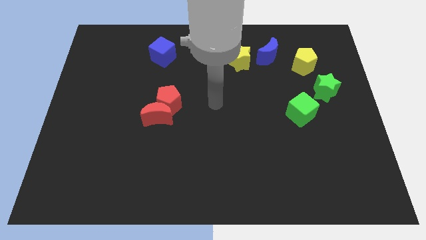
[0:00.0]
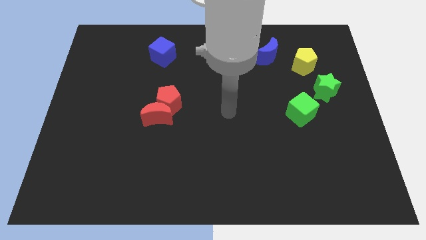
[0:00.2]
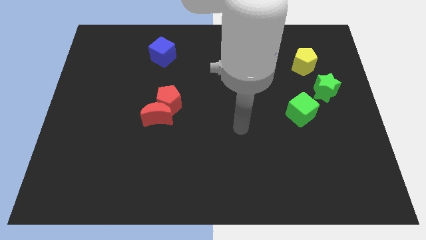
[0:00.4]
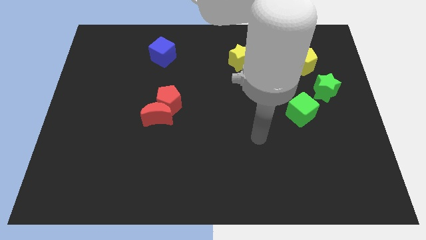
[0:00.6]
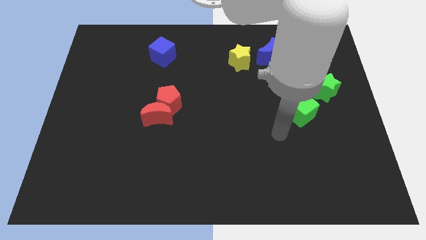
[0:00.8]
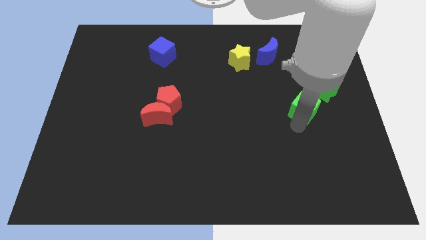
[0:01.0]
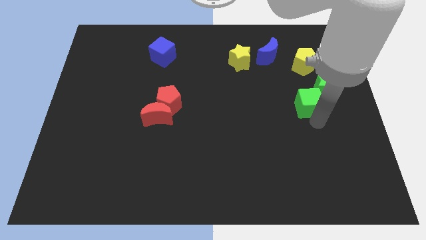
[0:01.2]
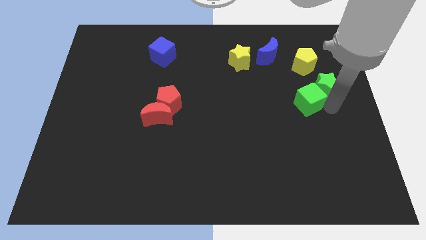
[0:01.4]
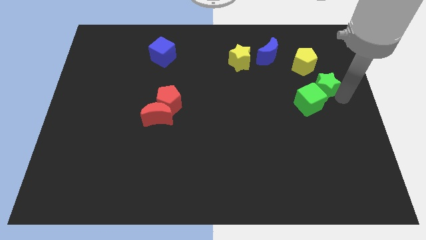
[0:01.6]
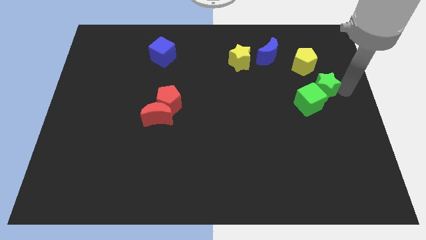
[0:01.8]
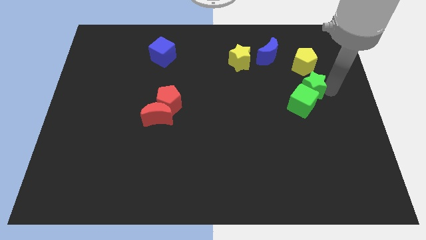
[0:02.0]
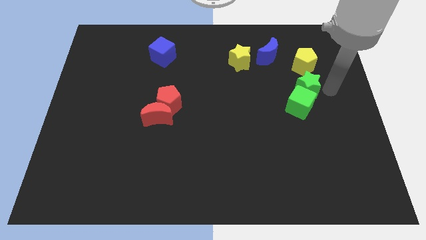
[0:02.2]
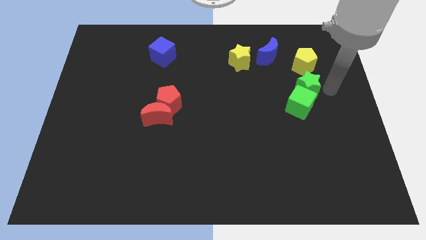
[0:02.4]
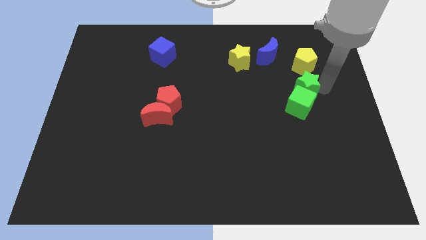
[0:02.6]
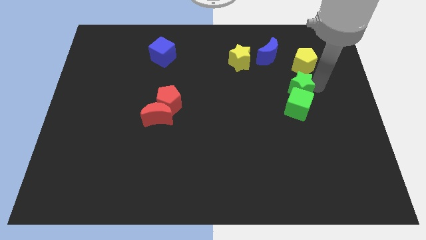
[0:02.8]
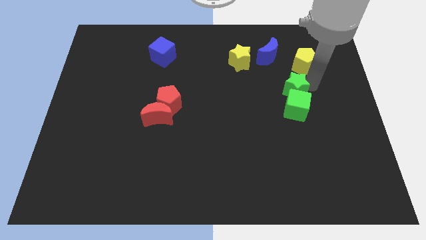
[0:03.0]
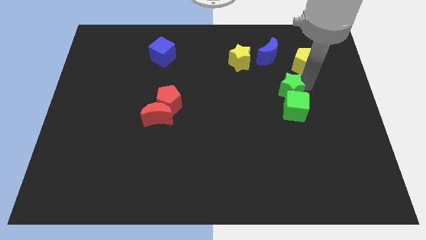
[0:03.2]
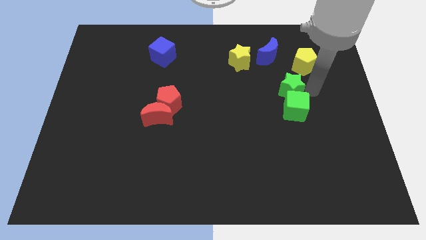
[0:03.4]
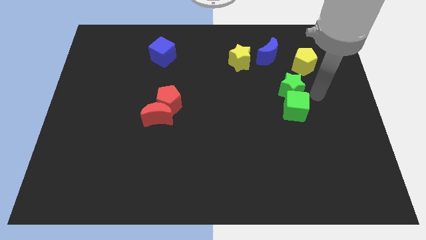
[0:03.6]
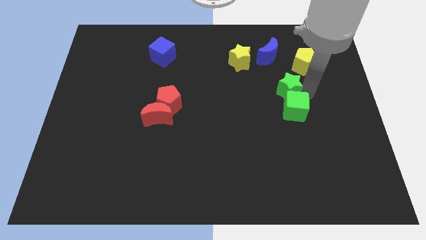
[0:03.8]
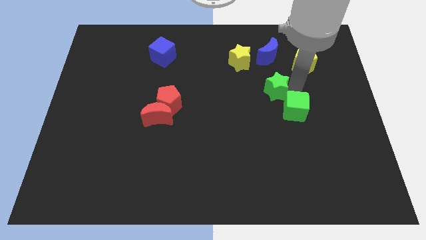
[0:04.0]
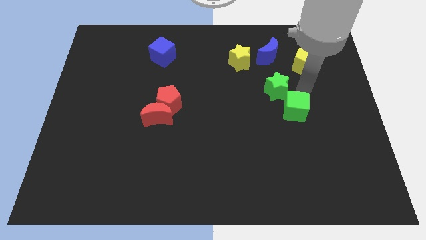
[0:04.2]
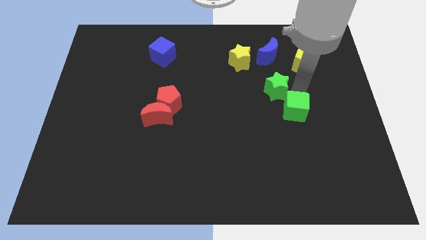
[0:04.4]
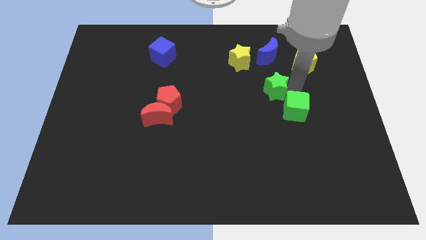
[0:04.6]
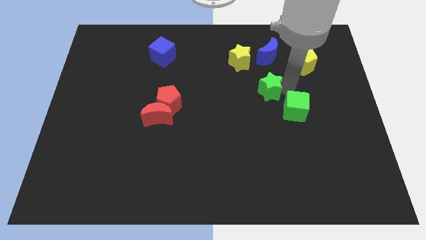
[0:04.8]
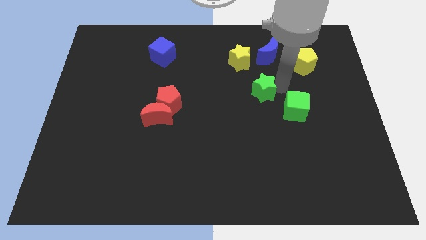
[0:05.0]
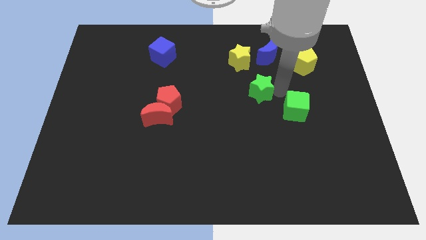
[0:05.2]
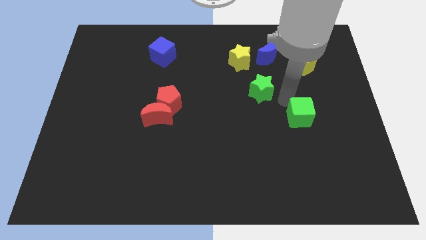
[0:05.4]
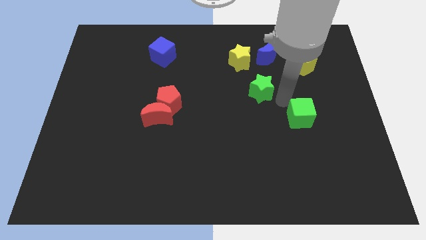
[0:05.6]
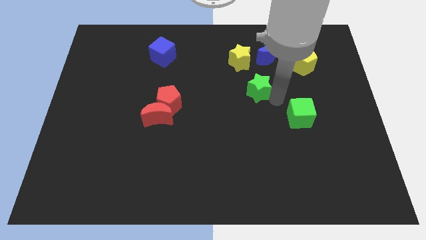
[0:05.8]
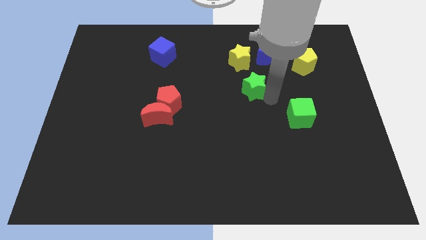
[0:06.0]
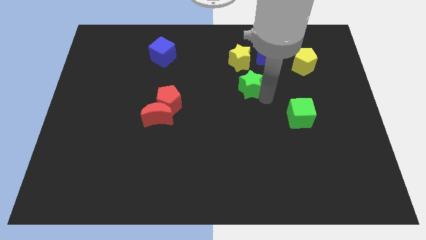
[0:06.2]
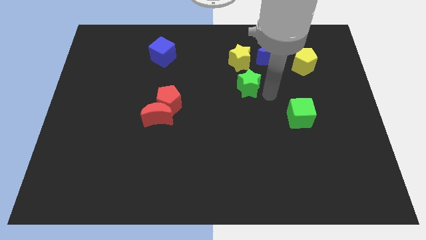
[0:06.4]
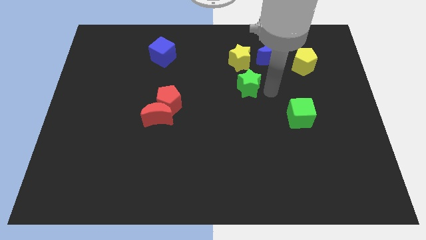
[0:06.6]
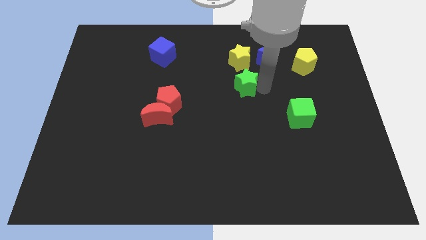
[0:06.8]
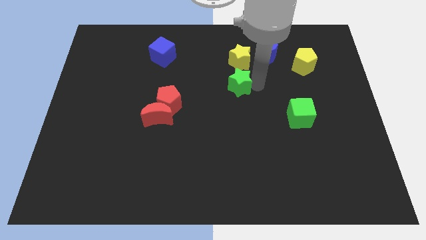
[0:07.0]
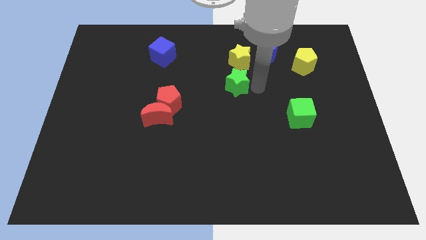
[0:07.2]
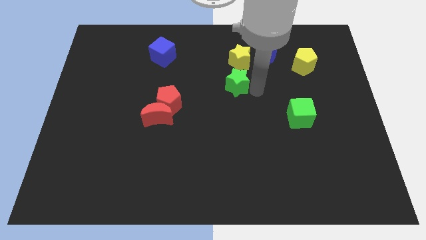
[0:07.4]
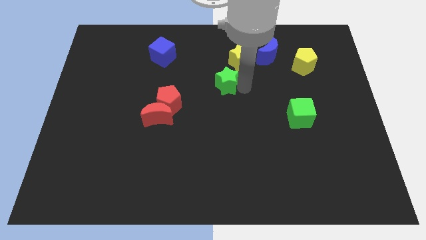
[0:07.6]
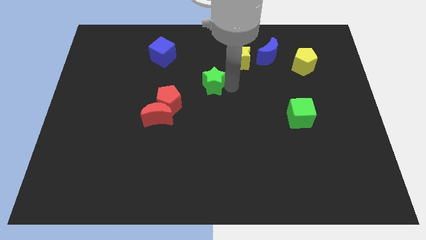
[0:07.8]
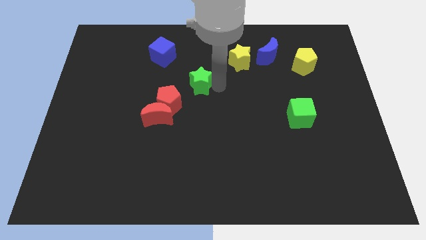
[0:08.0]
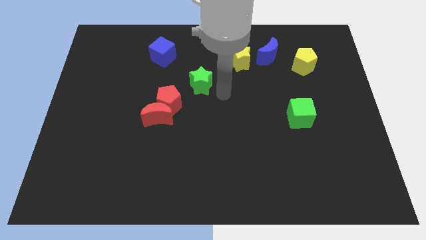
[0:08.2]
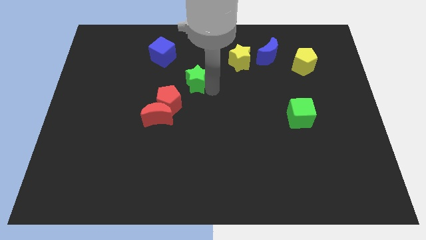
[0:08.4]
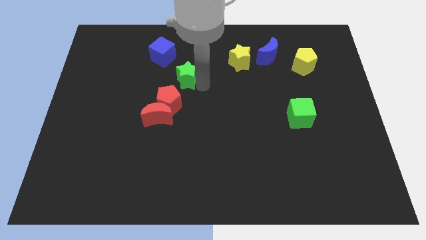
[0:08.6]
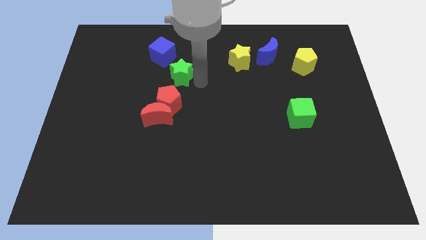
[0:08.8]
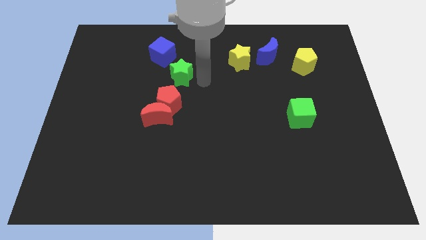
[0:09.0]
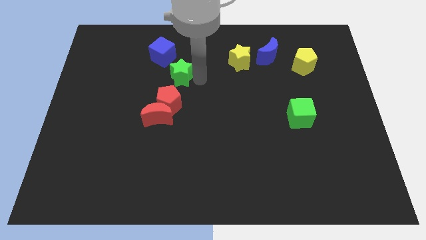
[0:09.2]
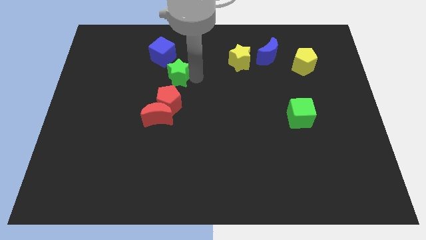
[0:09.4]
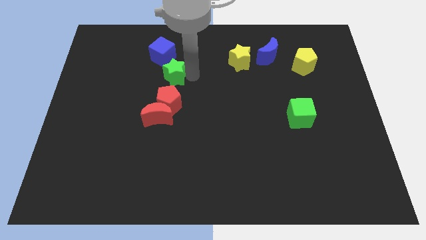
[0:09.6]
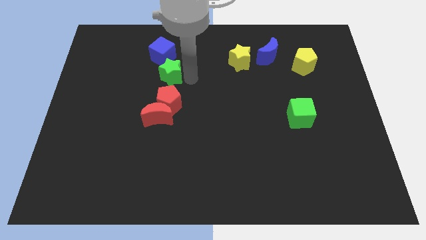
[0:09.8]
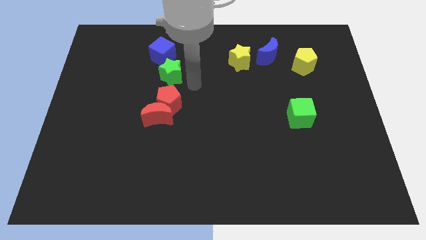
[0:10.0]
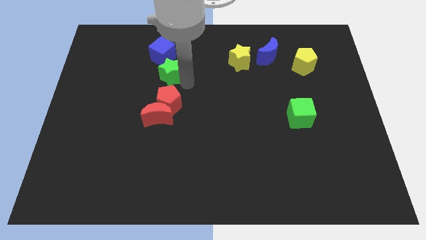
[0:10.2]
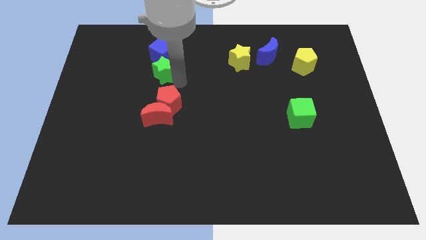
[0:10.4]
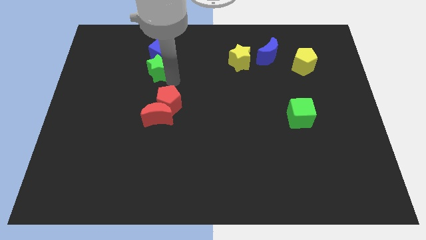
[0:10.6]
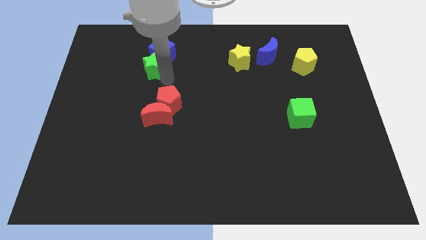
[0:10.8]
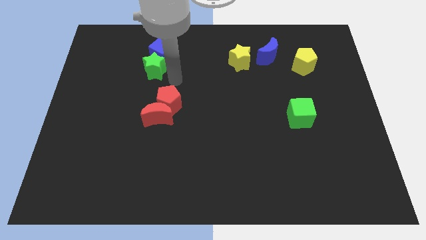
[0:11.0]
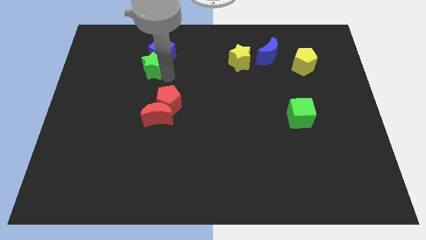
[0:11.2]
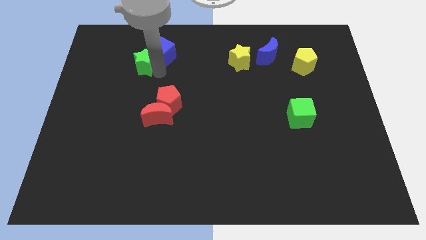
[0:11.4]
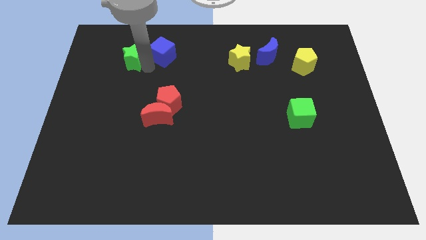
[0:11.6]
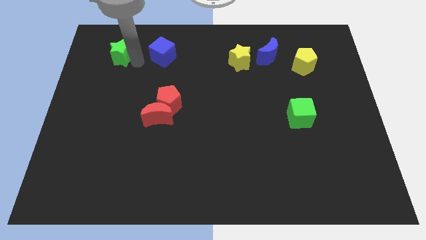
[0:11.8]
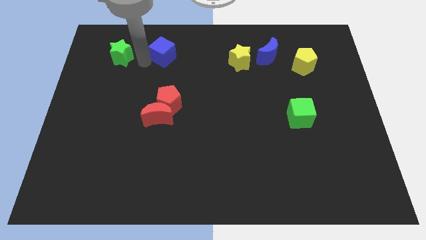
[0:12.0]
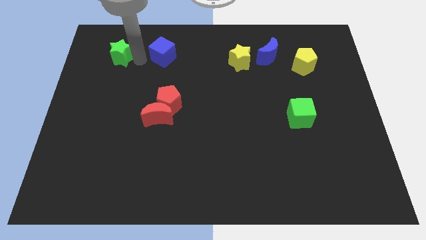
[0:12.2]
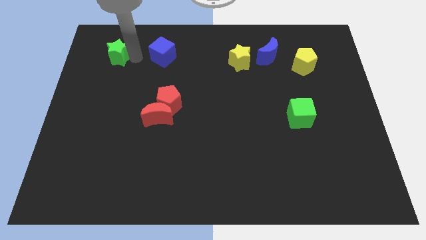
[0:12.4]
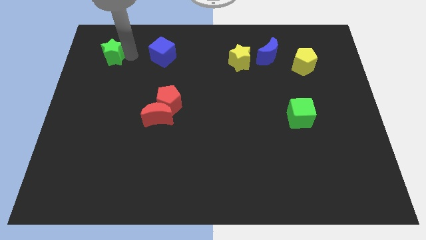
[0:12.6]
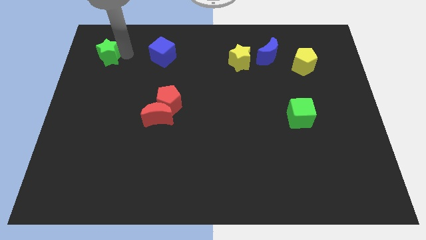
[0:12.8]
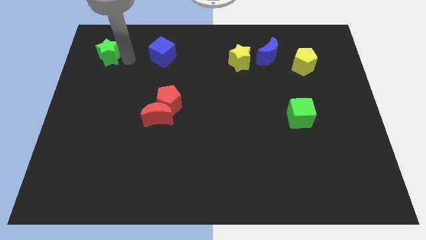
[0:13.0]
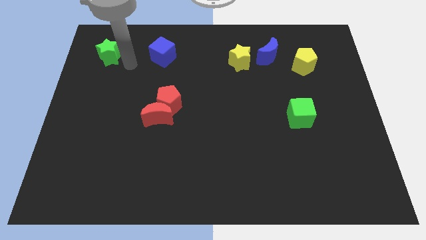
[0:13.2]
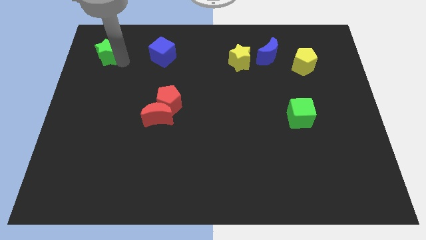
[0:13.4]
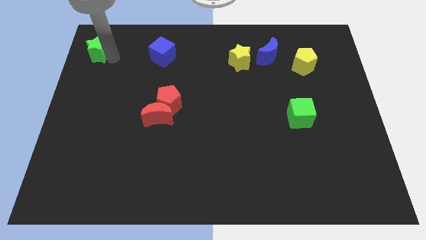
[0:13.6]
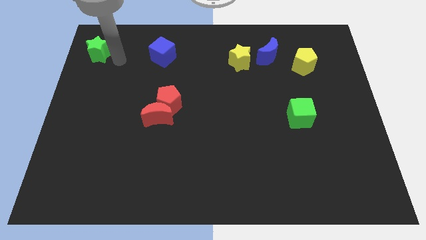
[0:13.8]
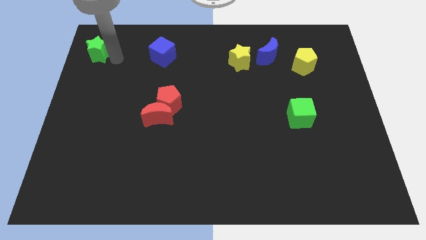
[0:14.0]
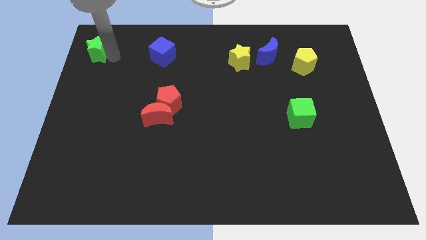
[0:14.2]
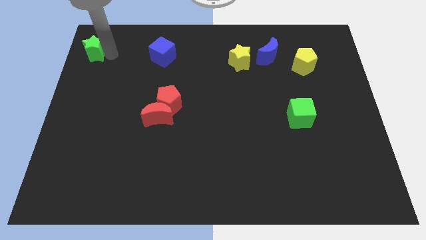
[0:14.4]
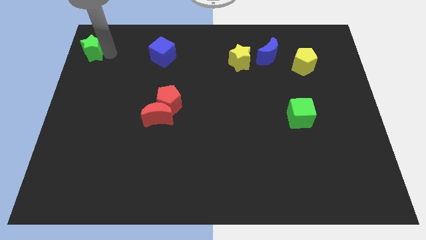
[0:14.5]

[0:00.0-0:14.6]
slide the green star to the top left corner
